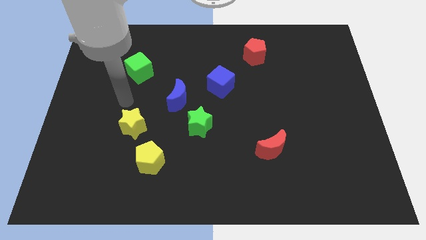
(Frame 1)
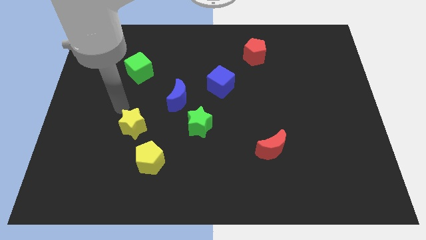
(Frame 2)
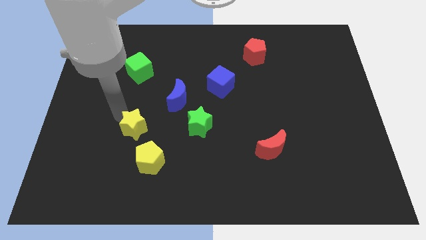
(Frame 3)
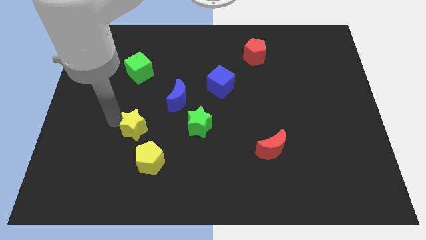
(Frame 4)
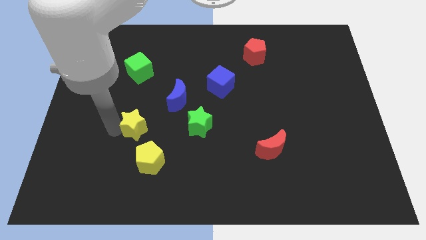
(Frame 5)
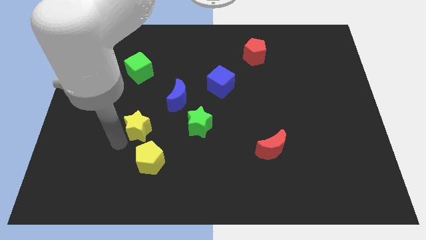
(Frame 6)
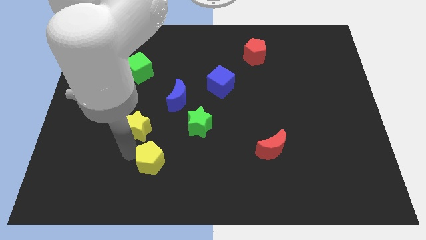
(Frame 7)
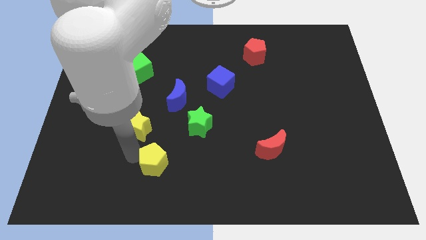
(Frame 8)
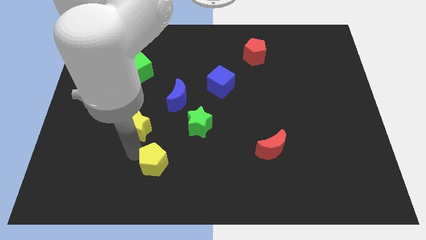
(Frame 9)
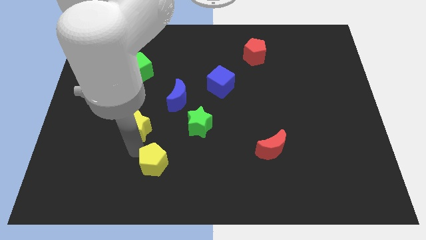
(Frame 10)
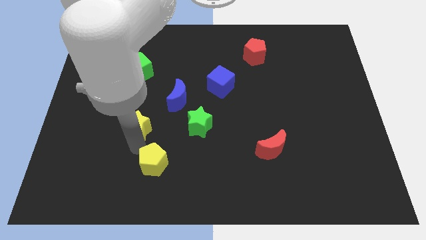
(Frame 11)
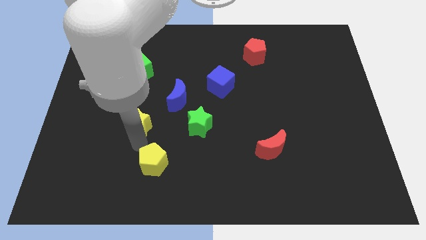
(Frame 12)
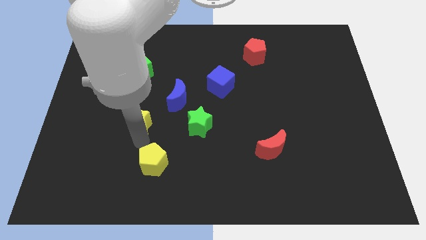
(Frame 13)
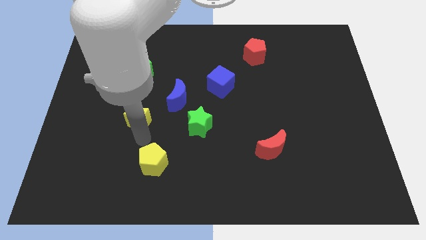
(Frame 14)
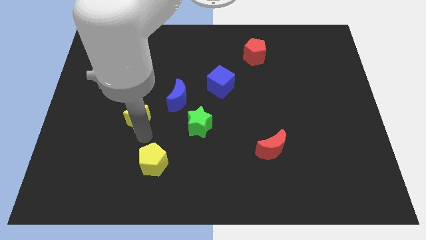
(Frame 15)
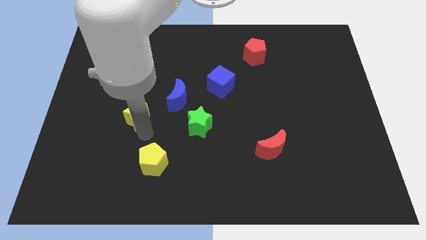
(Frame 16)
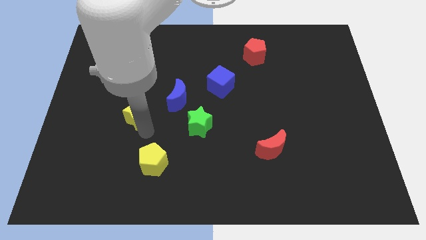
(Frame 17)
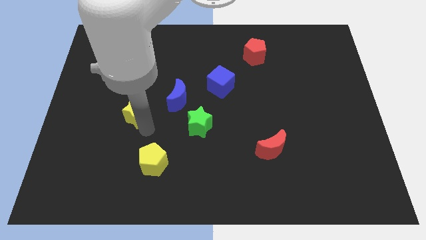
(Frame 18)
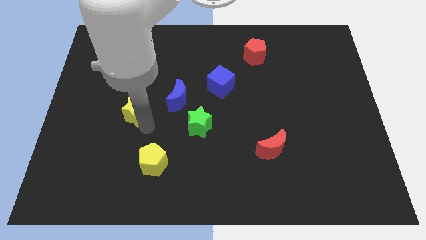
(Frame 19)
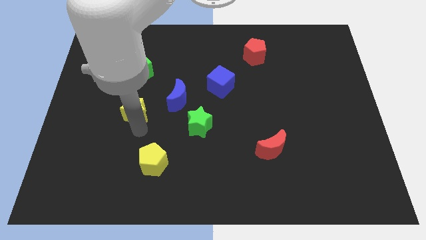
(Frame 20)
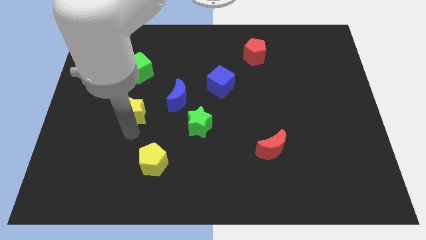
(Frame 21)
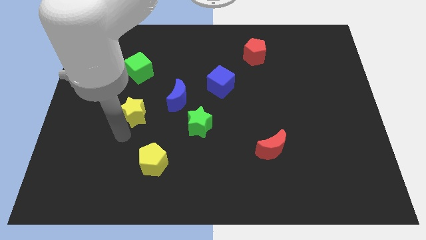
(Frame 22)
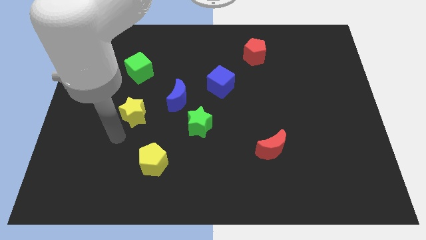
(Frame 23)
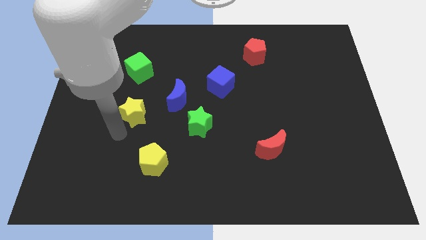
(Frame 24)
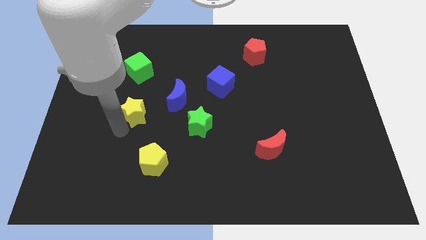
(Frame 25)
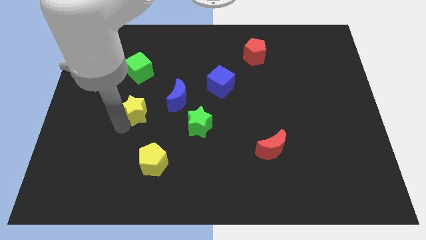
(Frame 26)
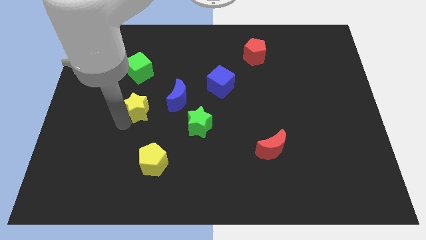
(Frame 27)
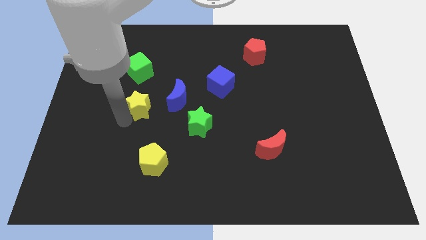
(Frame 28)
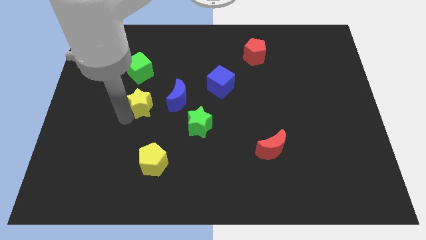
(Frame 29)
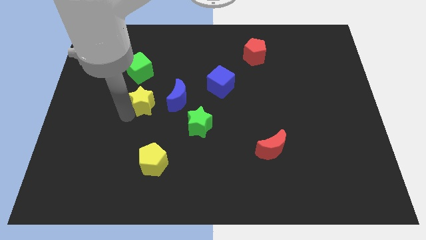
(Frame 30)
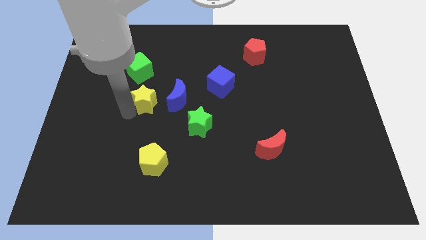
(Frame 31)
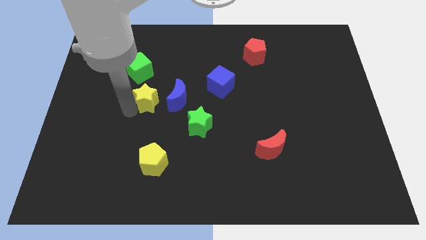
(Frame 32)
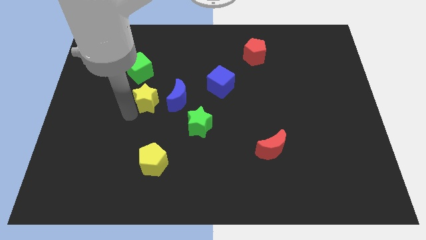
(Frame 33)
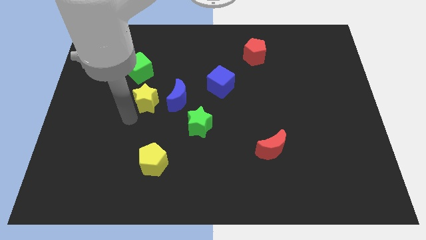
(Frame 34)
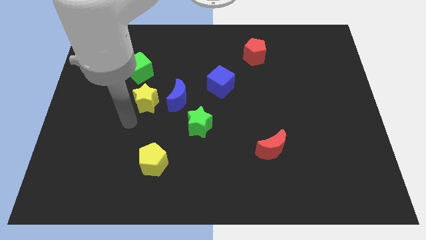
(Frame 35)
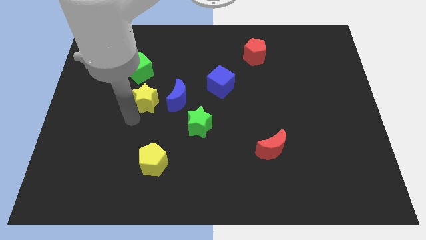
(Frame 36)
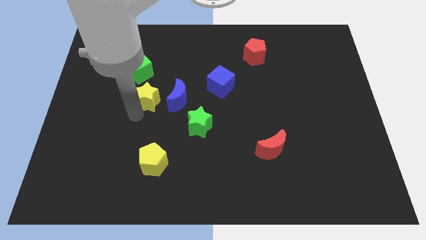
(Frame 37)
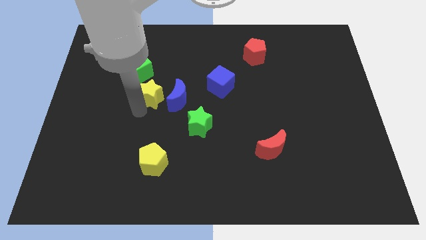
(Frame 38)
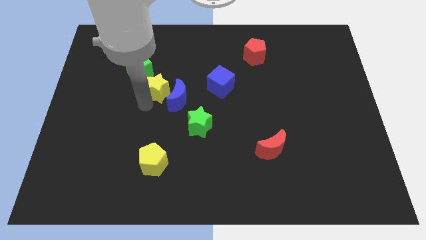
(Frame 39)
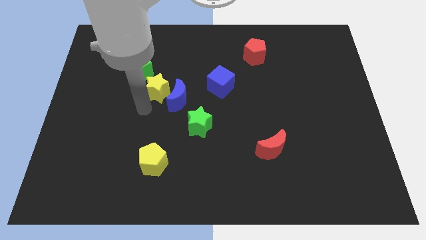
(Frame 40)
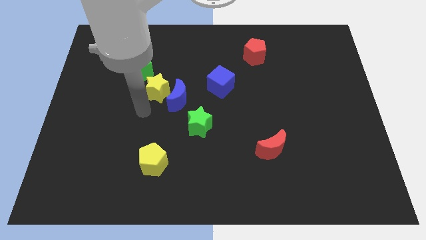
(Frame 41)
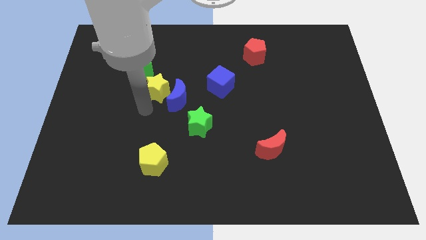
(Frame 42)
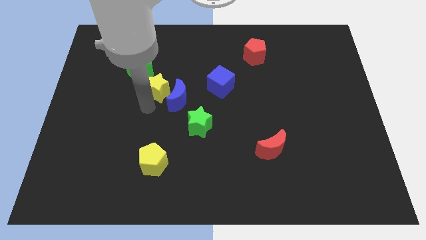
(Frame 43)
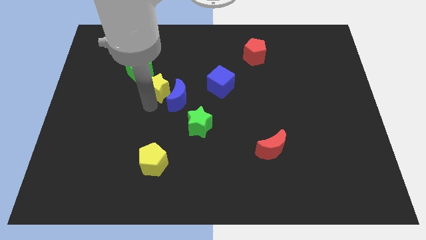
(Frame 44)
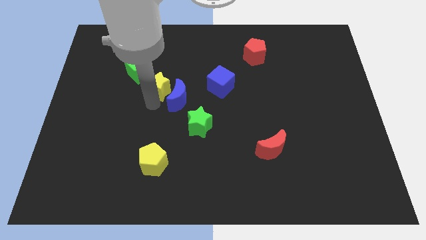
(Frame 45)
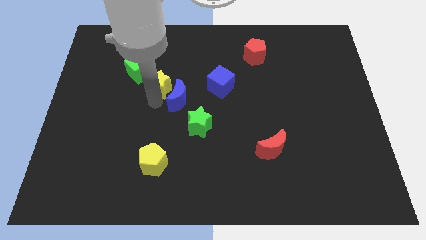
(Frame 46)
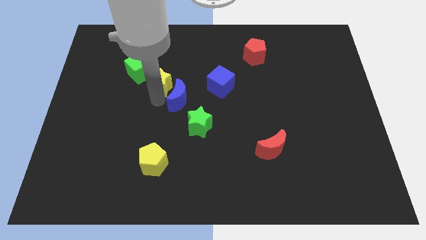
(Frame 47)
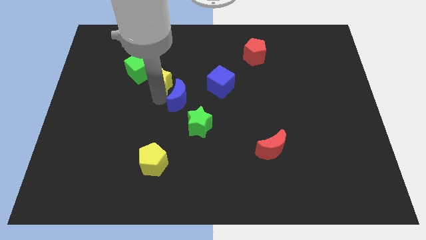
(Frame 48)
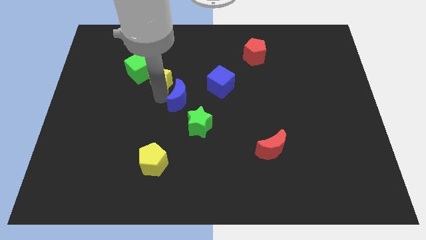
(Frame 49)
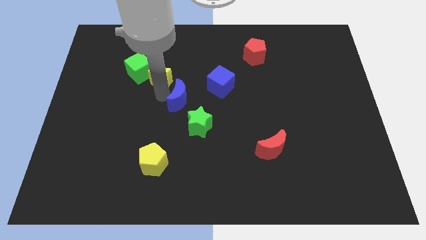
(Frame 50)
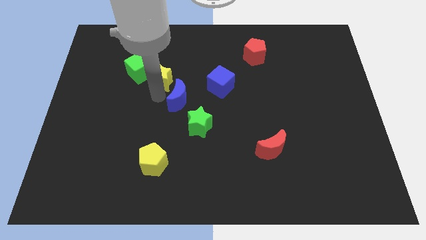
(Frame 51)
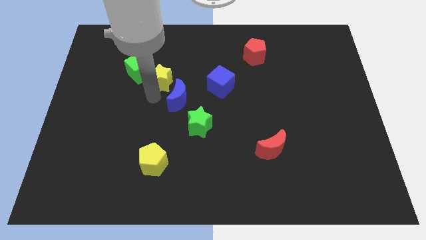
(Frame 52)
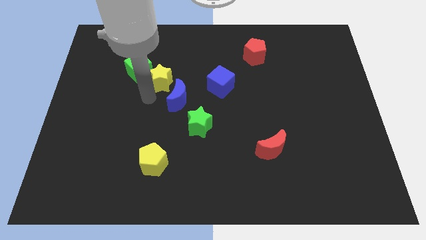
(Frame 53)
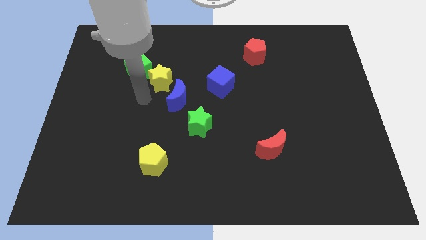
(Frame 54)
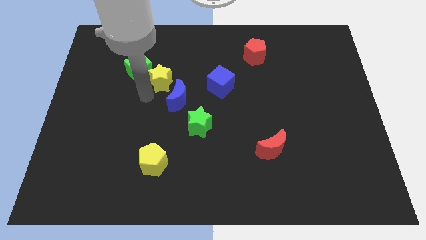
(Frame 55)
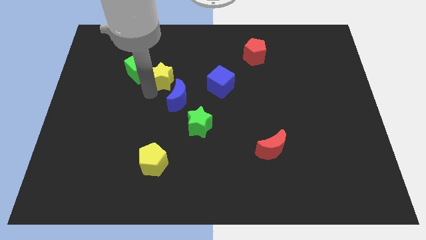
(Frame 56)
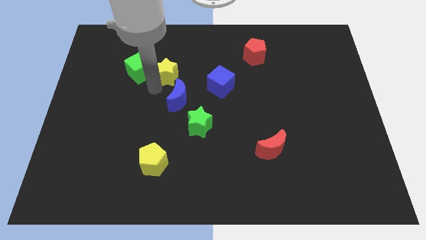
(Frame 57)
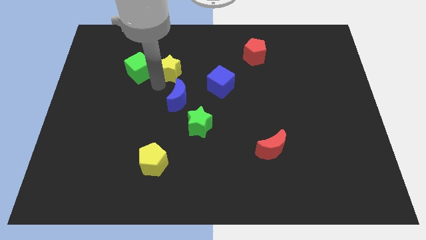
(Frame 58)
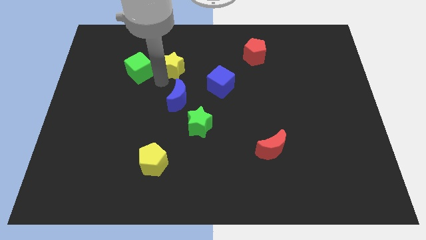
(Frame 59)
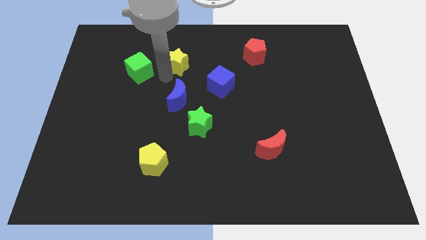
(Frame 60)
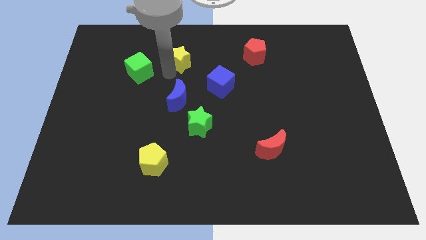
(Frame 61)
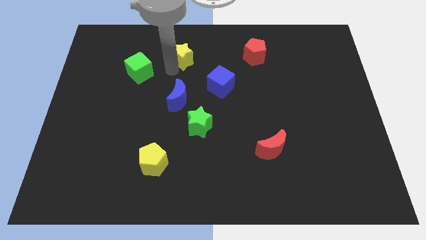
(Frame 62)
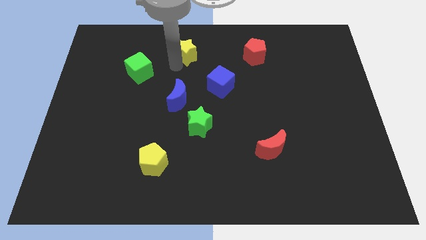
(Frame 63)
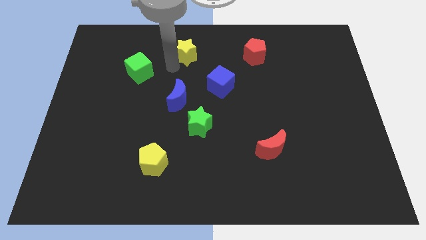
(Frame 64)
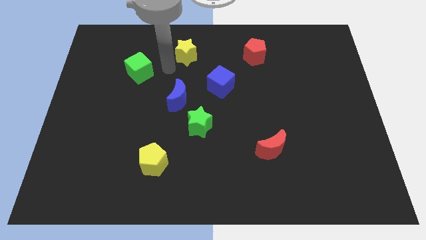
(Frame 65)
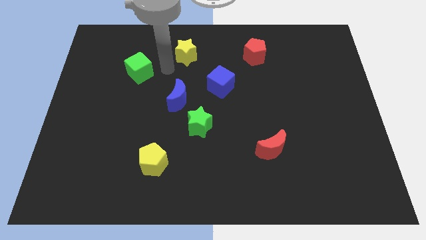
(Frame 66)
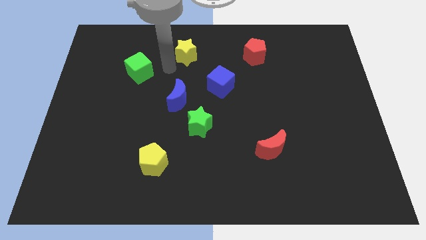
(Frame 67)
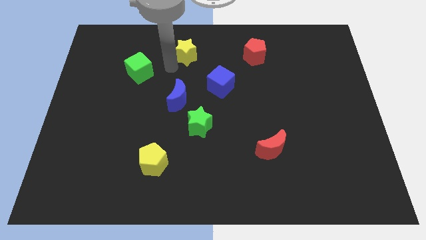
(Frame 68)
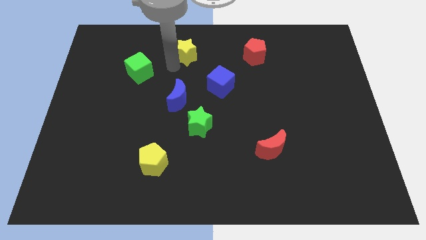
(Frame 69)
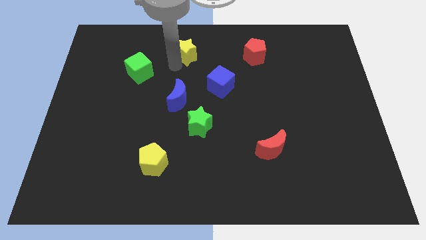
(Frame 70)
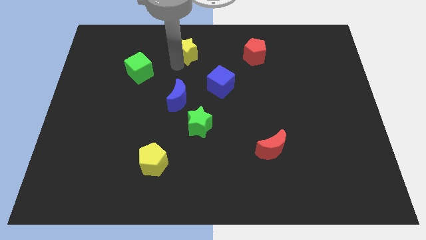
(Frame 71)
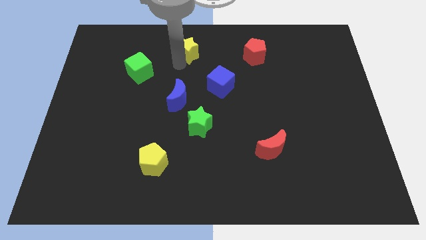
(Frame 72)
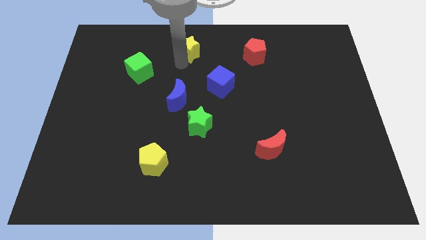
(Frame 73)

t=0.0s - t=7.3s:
put the yellow star to the top side
